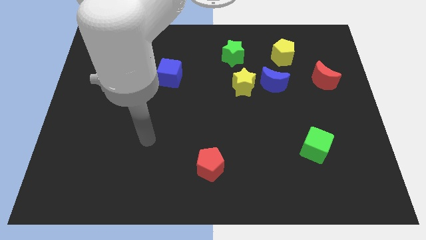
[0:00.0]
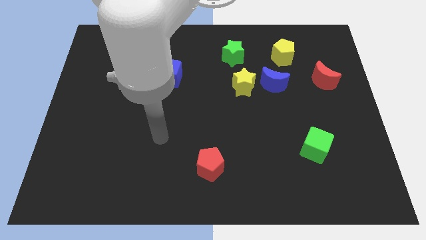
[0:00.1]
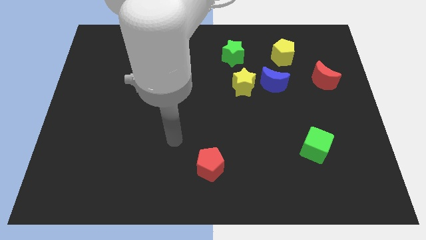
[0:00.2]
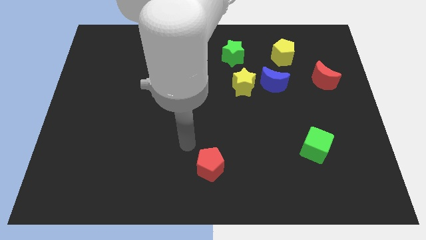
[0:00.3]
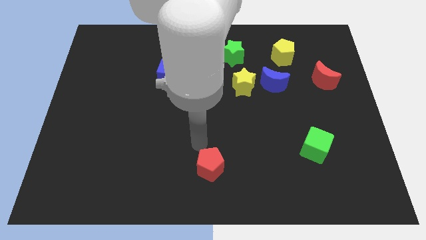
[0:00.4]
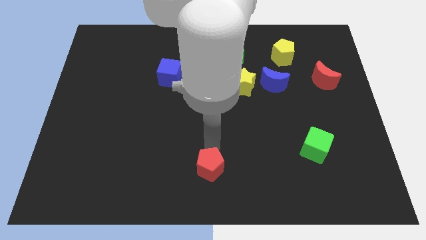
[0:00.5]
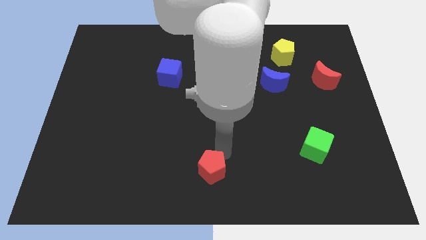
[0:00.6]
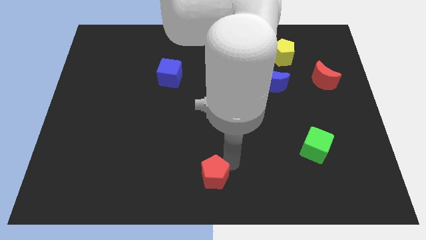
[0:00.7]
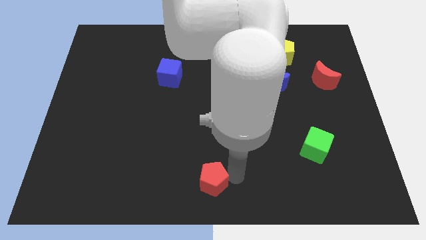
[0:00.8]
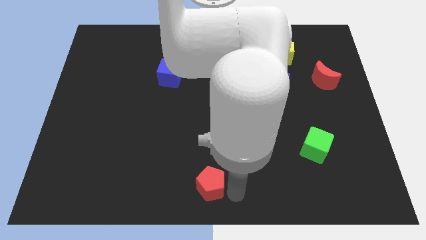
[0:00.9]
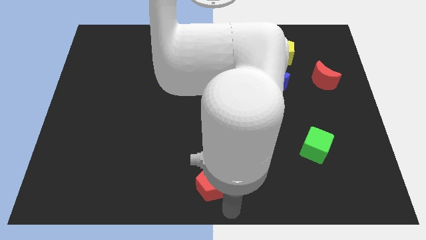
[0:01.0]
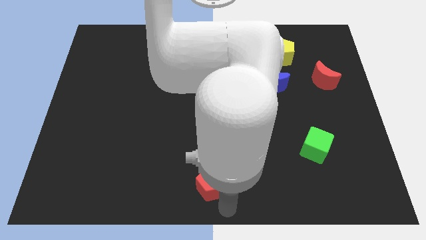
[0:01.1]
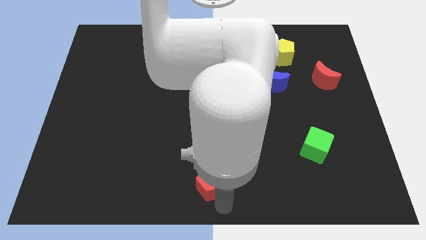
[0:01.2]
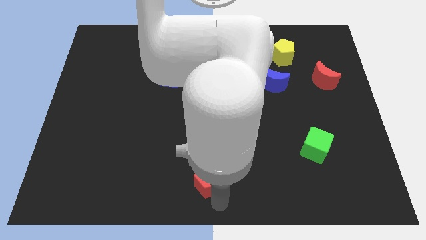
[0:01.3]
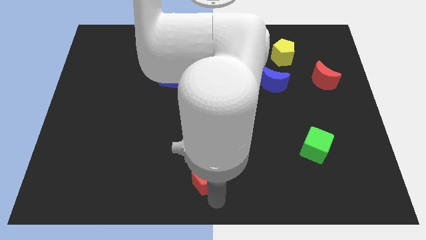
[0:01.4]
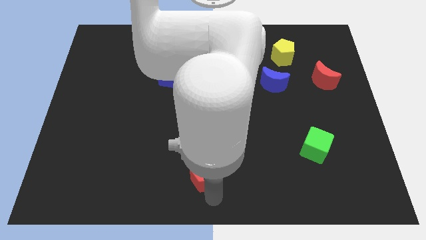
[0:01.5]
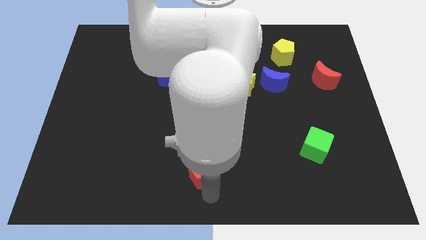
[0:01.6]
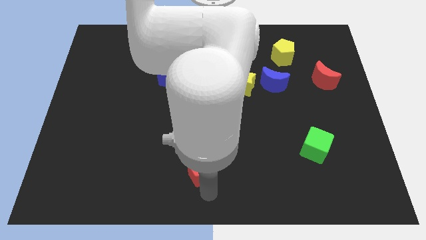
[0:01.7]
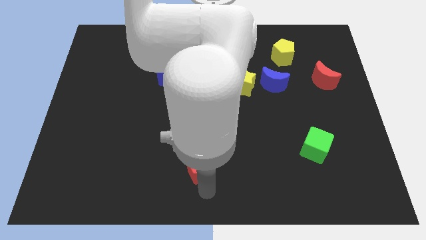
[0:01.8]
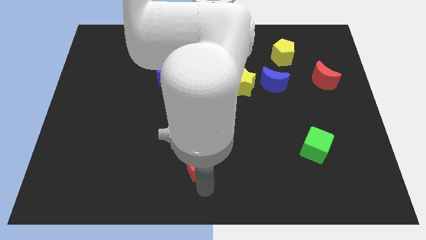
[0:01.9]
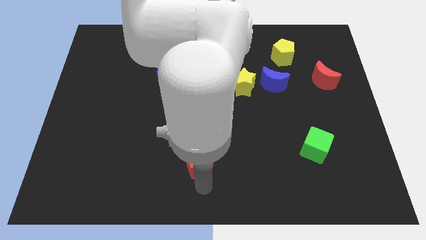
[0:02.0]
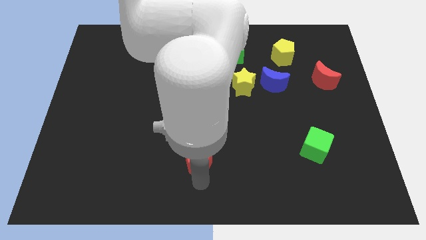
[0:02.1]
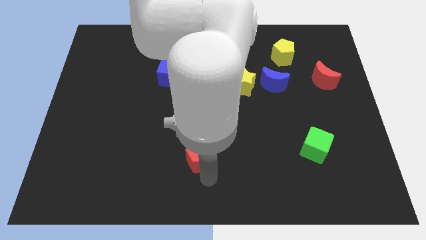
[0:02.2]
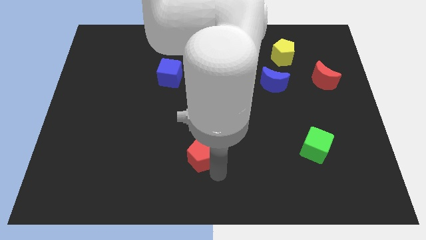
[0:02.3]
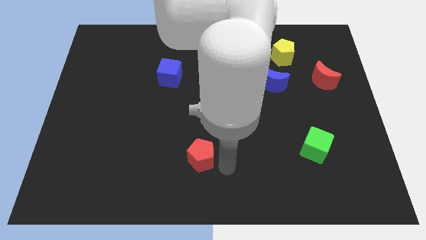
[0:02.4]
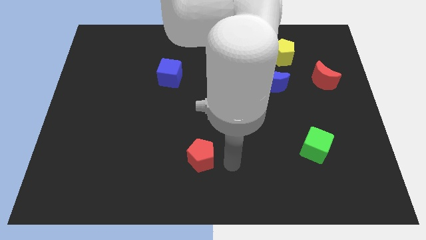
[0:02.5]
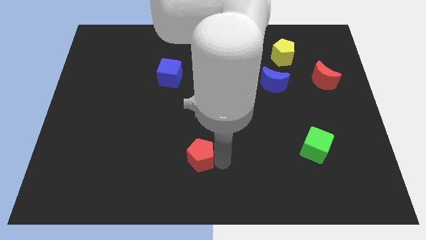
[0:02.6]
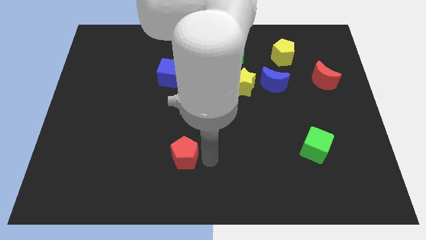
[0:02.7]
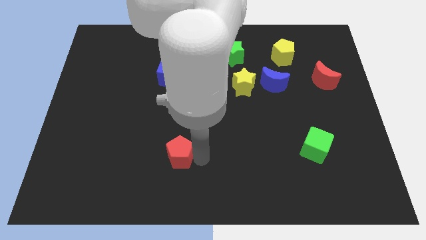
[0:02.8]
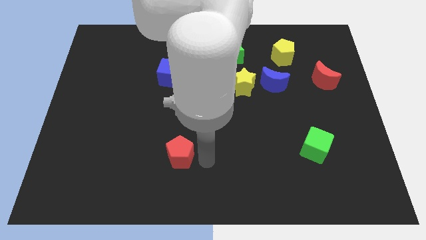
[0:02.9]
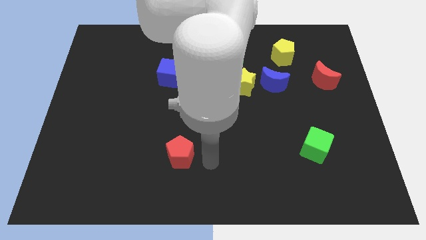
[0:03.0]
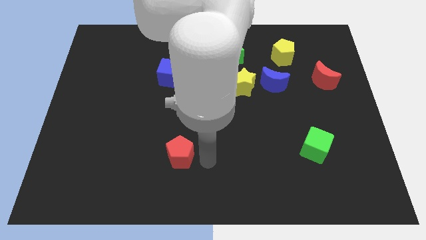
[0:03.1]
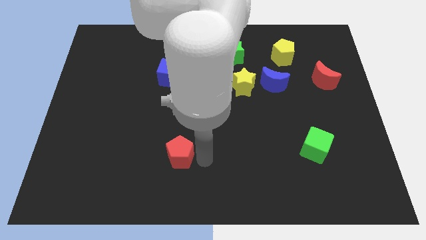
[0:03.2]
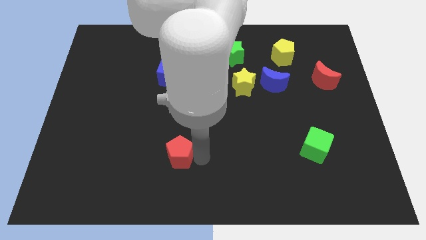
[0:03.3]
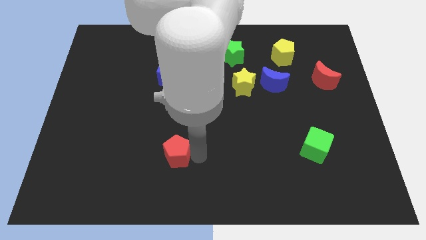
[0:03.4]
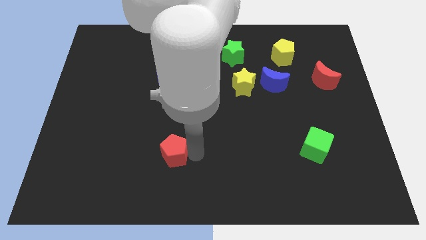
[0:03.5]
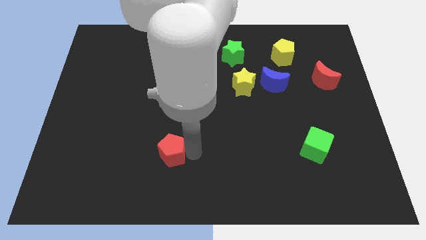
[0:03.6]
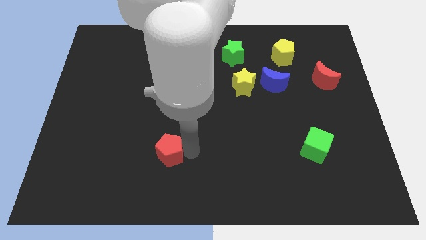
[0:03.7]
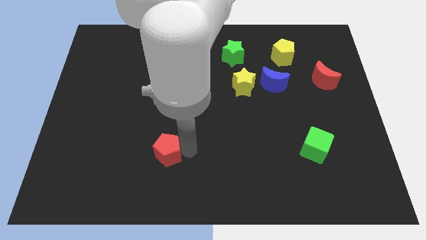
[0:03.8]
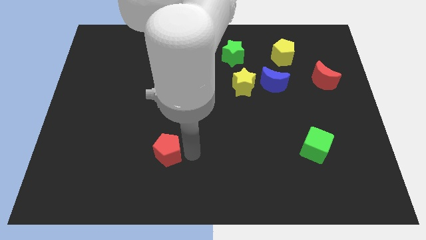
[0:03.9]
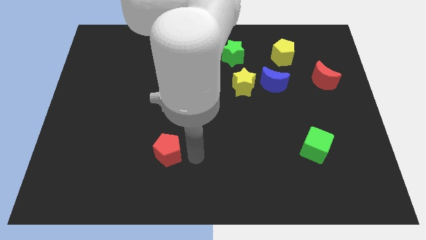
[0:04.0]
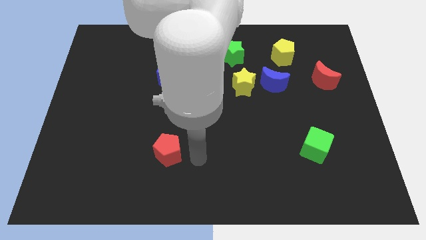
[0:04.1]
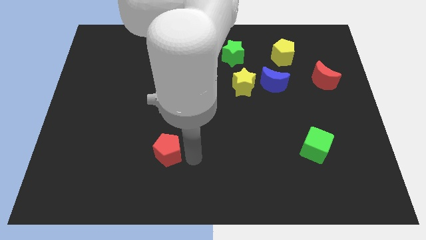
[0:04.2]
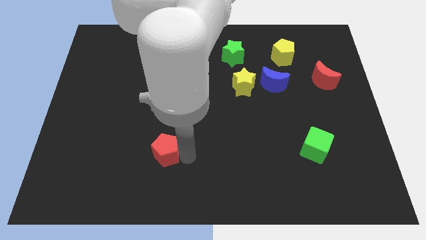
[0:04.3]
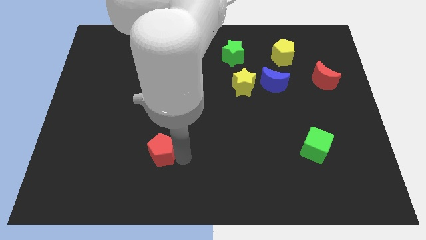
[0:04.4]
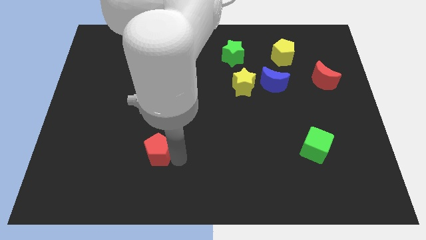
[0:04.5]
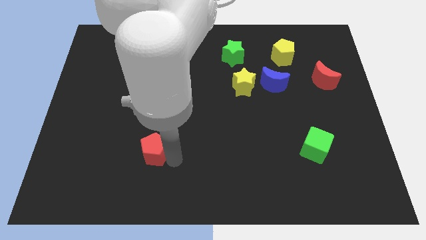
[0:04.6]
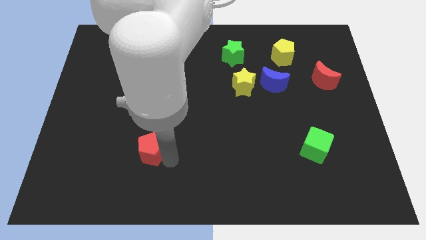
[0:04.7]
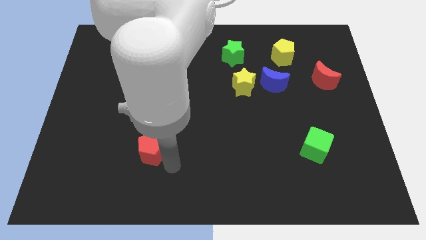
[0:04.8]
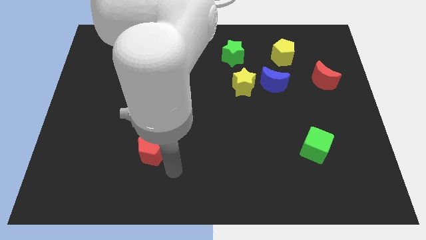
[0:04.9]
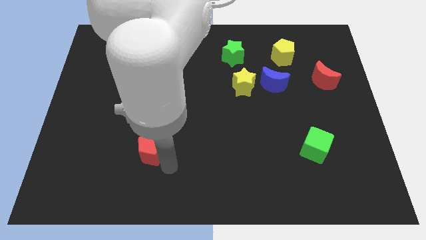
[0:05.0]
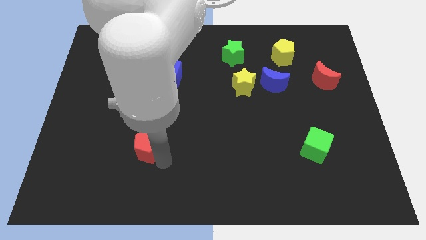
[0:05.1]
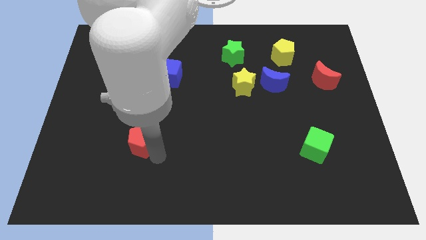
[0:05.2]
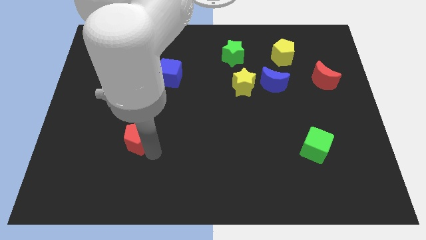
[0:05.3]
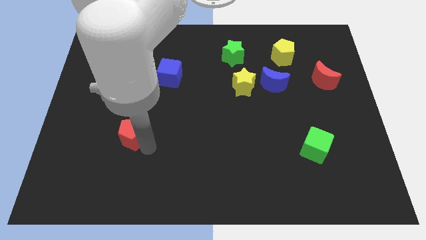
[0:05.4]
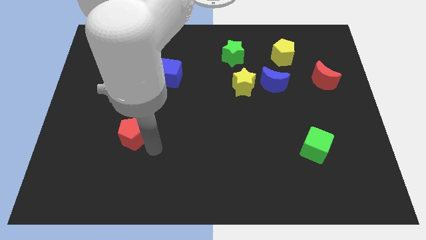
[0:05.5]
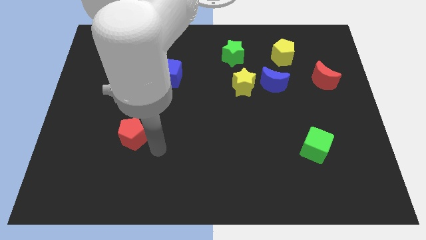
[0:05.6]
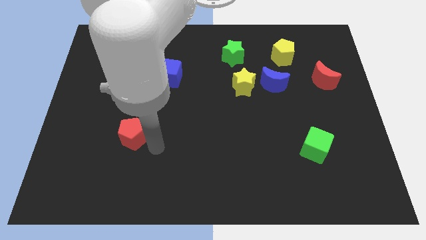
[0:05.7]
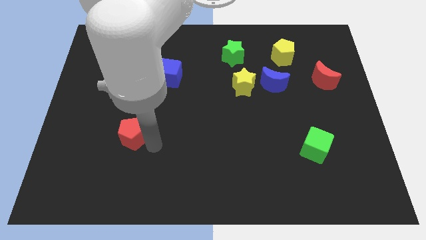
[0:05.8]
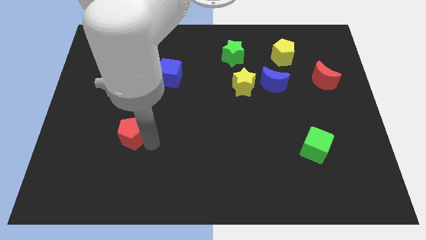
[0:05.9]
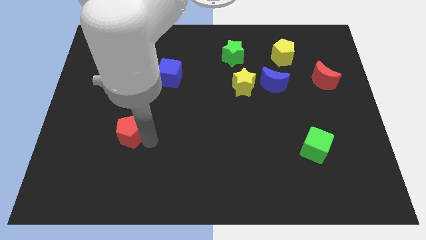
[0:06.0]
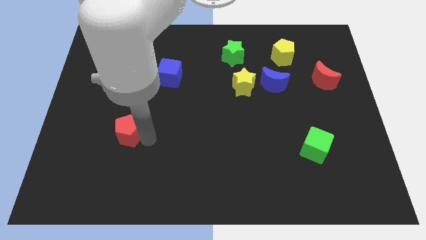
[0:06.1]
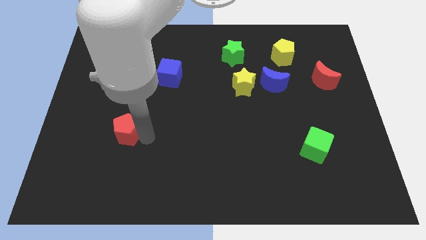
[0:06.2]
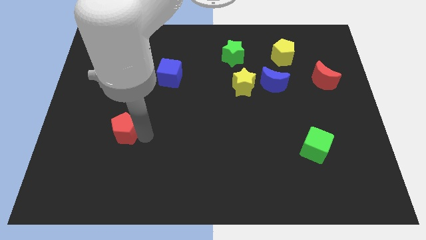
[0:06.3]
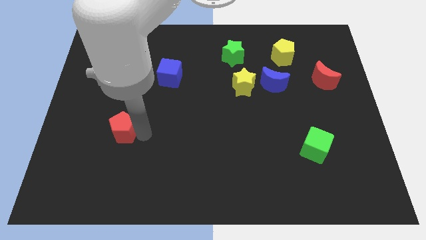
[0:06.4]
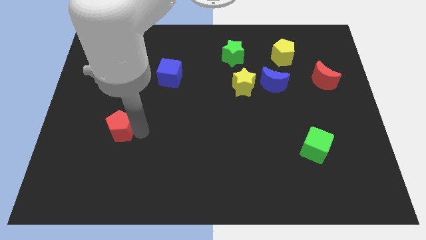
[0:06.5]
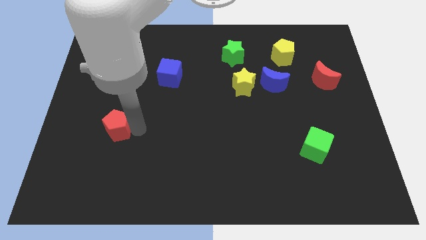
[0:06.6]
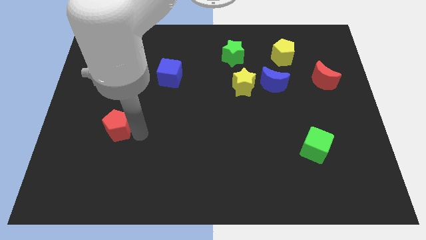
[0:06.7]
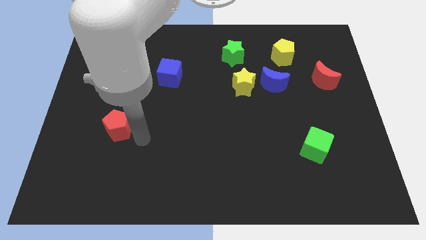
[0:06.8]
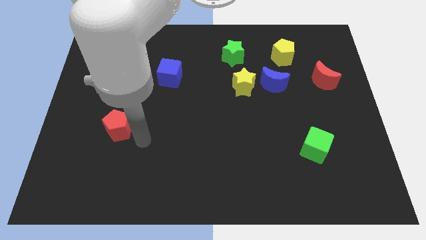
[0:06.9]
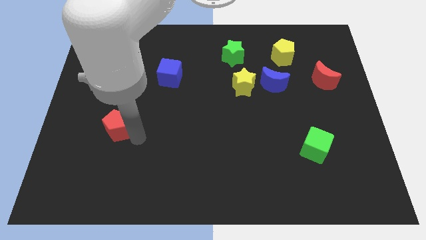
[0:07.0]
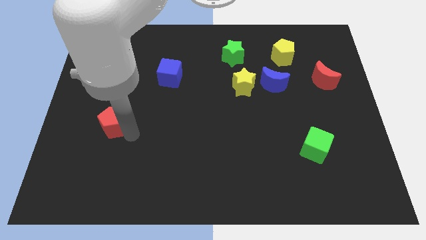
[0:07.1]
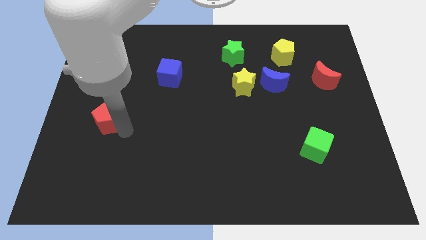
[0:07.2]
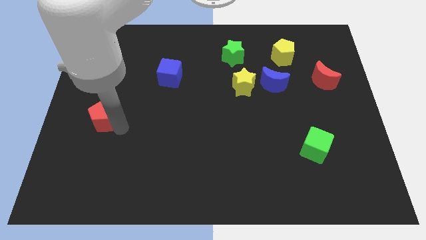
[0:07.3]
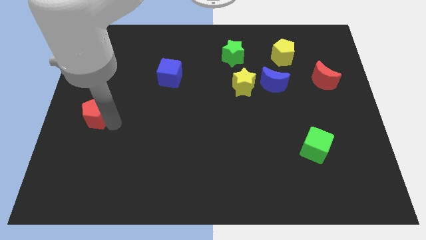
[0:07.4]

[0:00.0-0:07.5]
move the red pentagon to the left side
